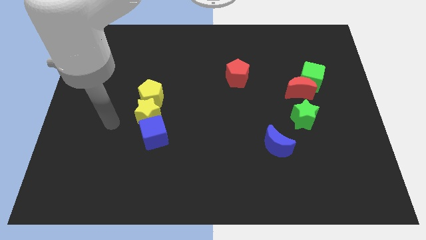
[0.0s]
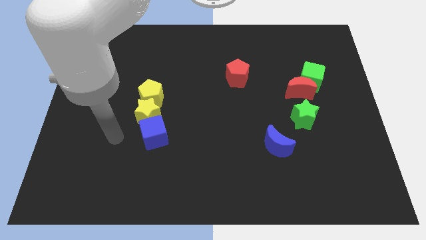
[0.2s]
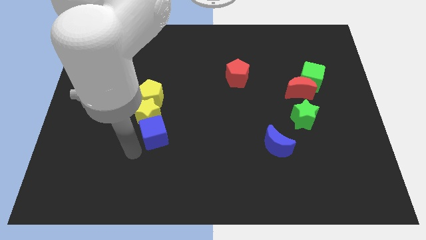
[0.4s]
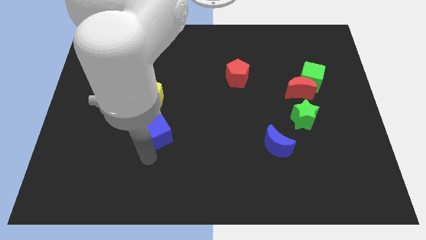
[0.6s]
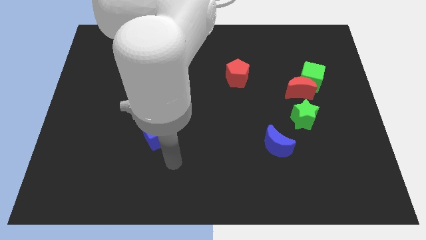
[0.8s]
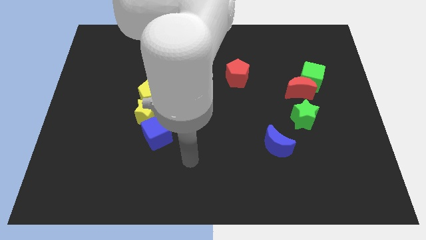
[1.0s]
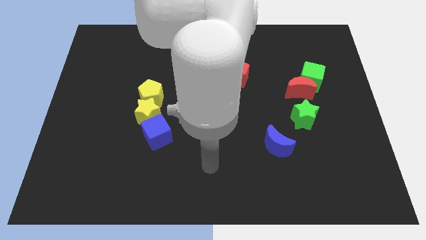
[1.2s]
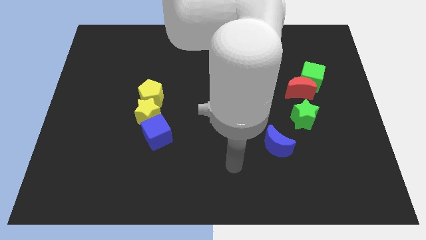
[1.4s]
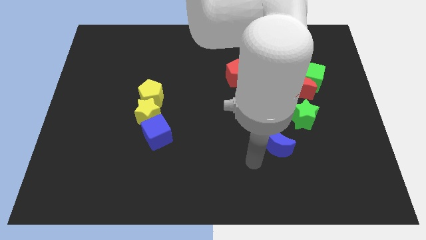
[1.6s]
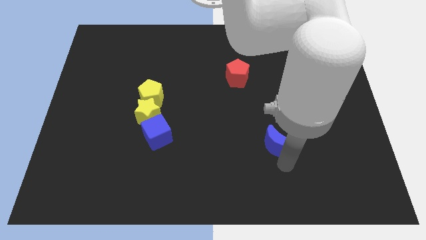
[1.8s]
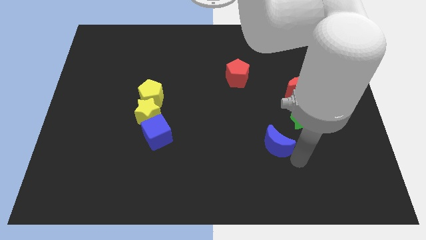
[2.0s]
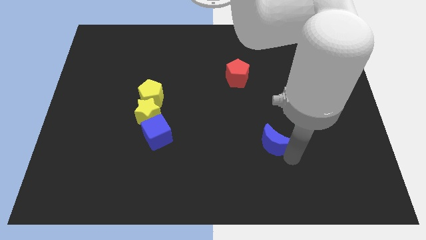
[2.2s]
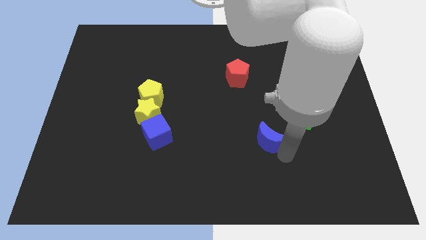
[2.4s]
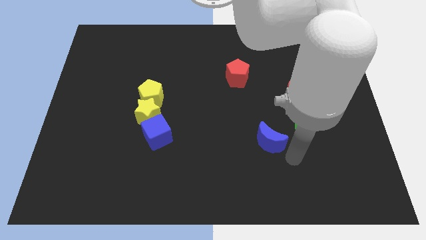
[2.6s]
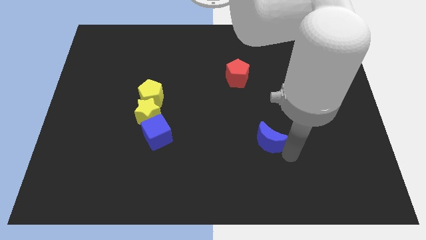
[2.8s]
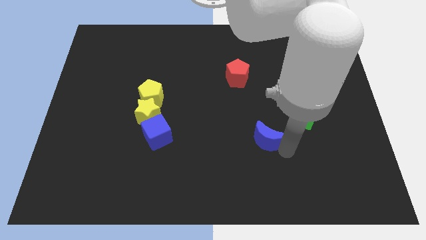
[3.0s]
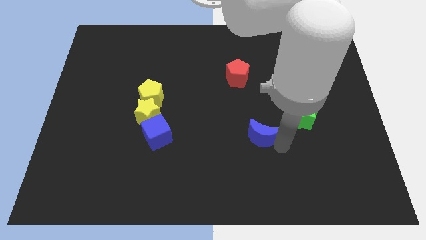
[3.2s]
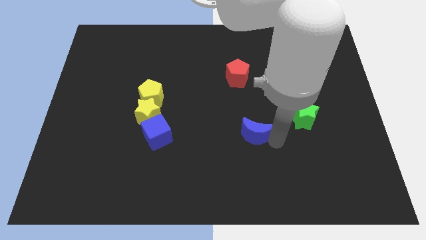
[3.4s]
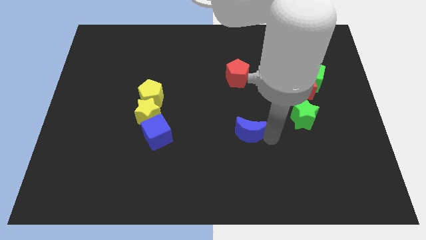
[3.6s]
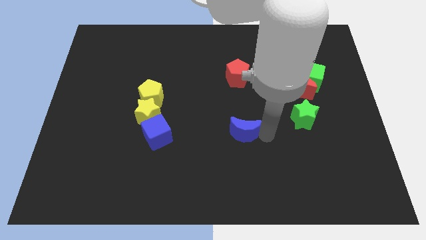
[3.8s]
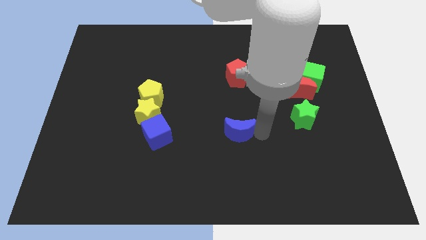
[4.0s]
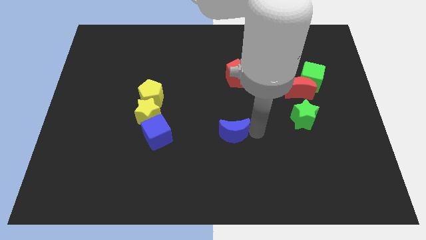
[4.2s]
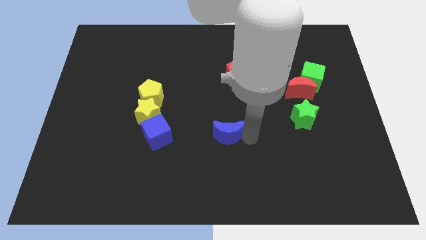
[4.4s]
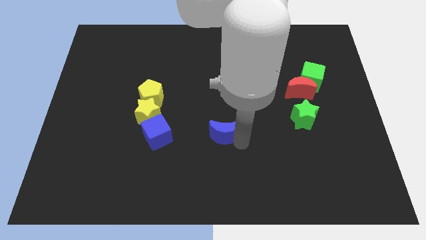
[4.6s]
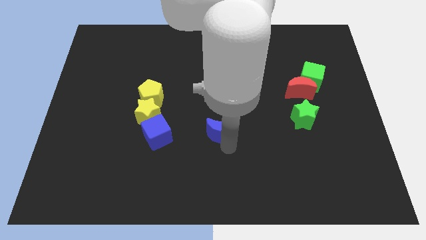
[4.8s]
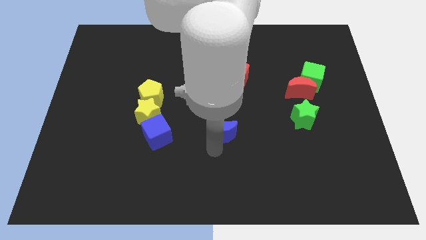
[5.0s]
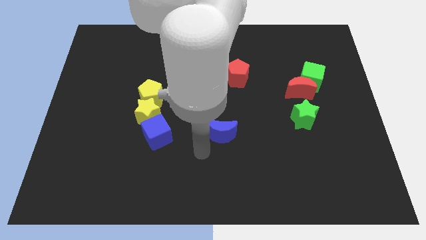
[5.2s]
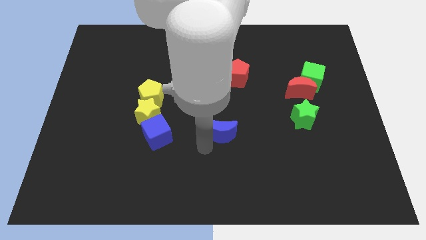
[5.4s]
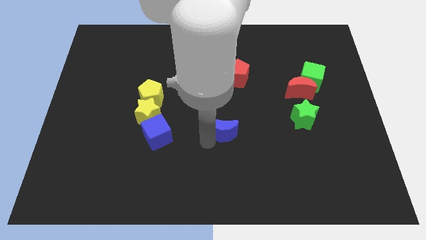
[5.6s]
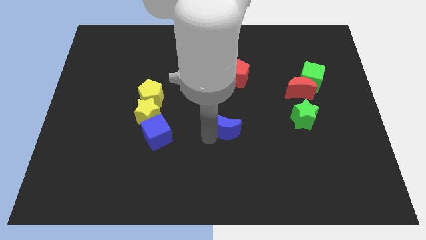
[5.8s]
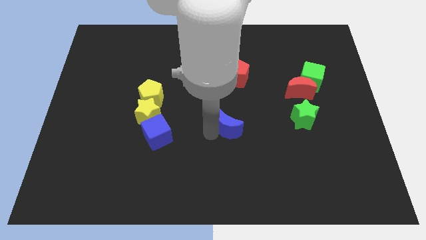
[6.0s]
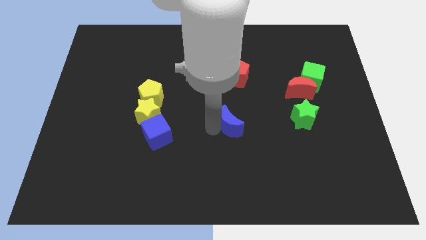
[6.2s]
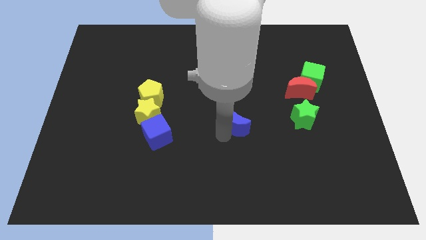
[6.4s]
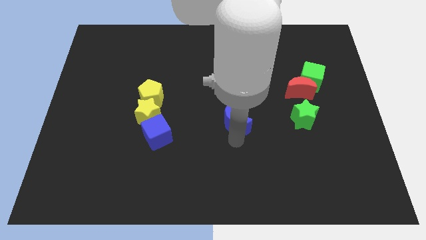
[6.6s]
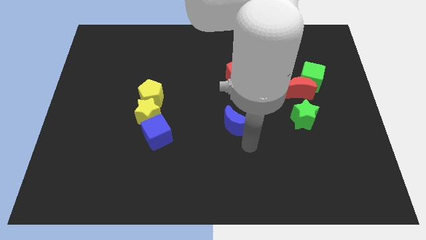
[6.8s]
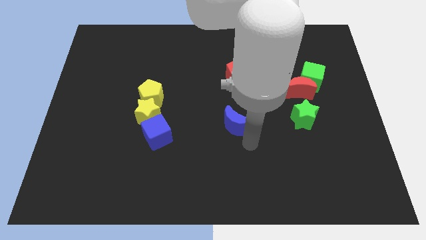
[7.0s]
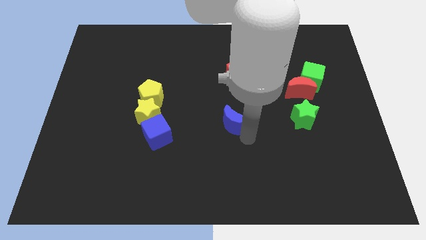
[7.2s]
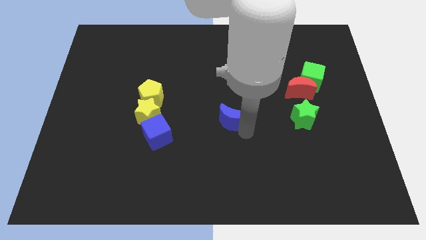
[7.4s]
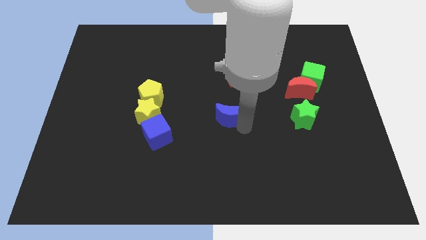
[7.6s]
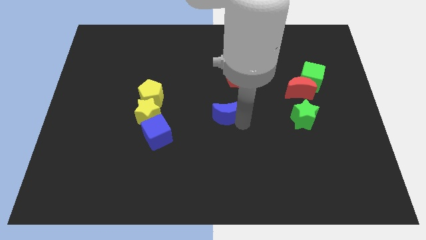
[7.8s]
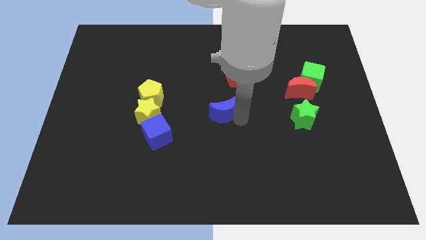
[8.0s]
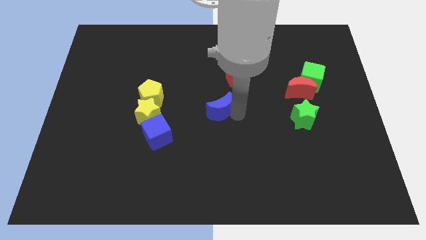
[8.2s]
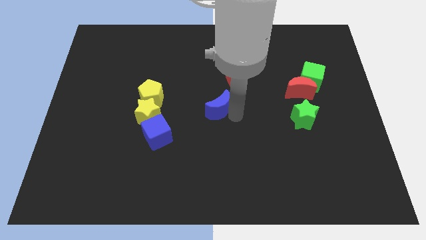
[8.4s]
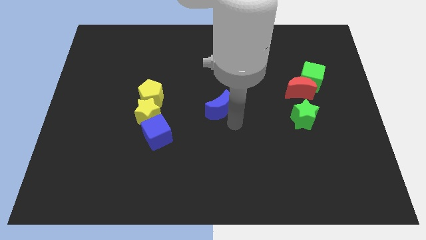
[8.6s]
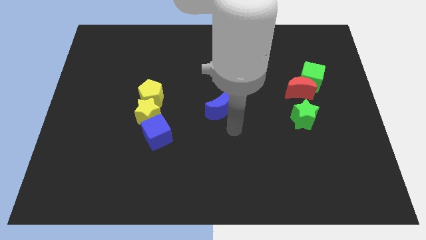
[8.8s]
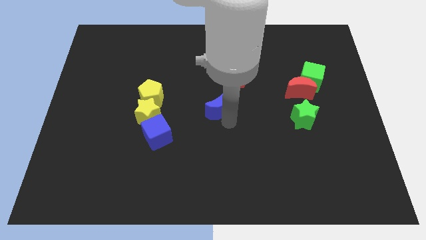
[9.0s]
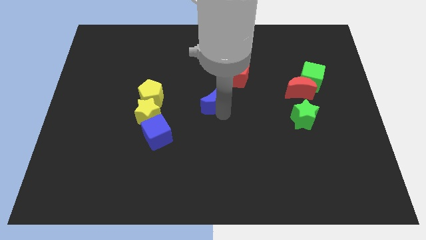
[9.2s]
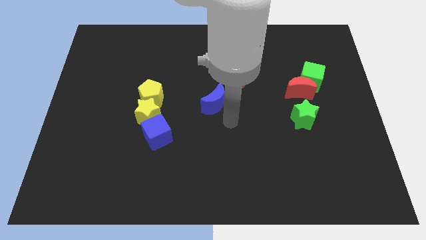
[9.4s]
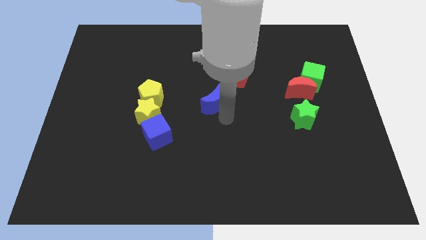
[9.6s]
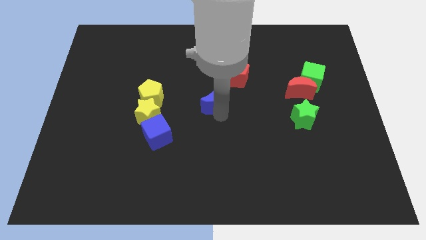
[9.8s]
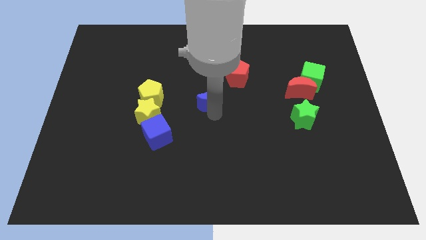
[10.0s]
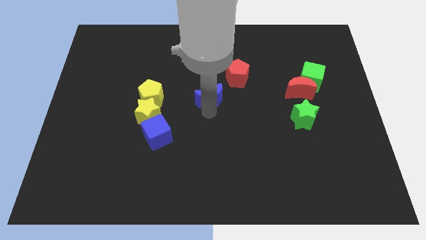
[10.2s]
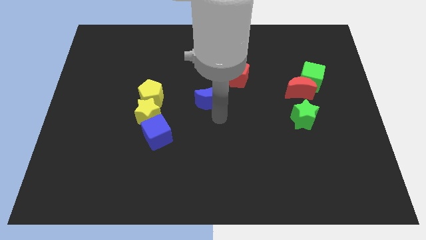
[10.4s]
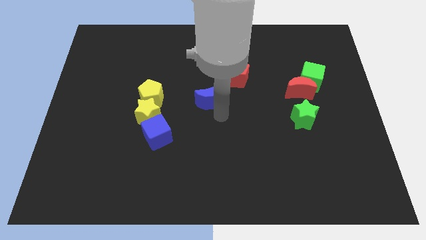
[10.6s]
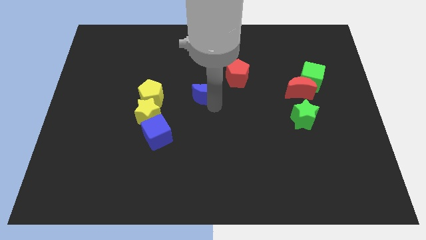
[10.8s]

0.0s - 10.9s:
slide the blue moon upwards and left

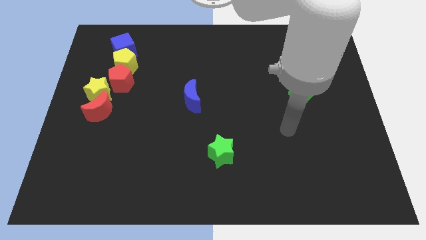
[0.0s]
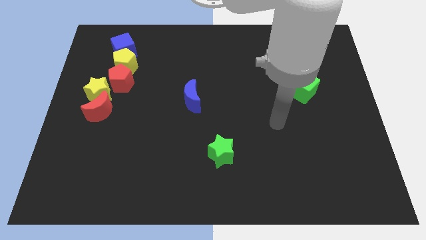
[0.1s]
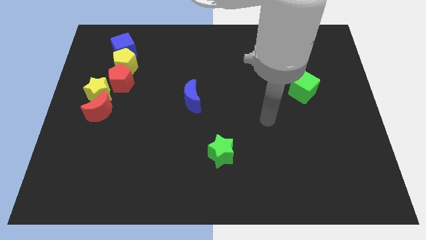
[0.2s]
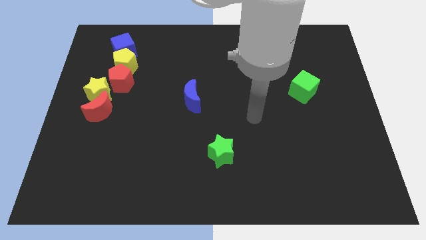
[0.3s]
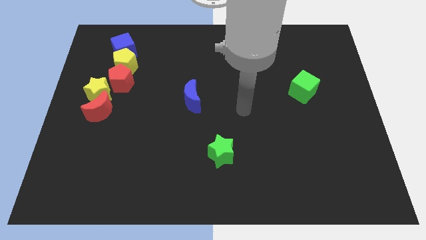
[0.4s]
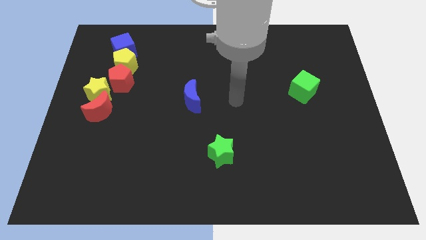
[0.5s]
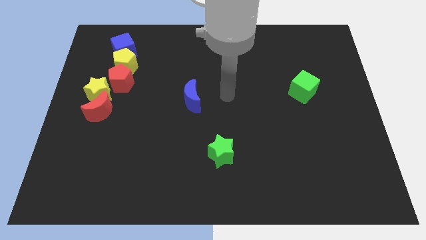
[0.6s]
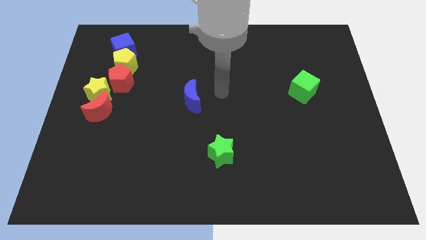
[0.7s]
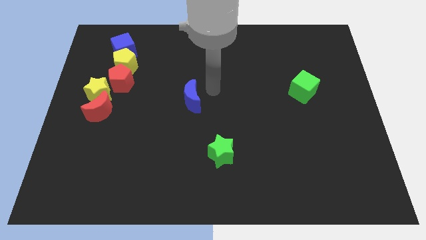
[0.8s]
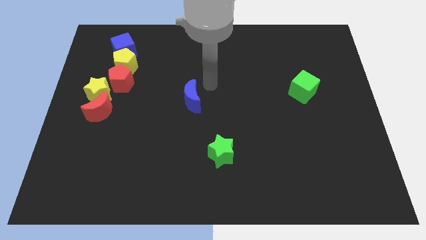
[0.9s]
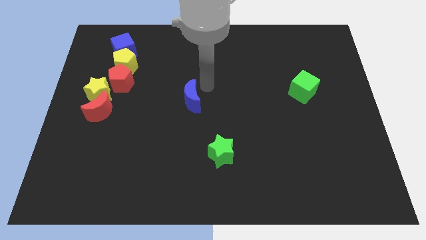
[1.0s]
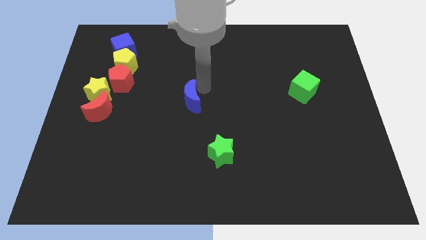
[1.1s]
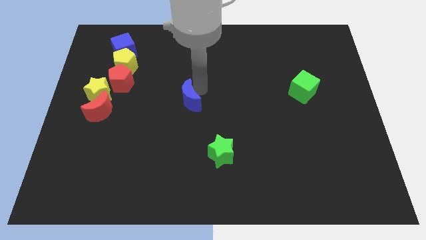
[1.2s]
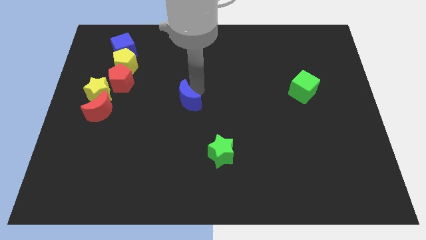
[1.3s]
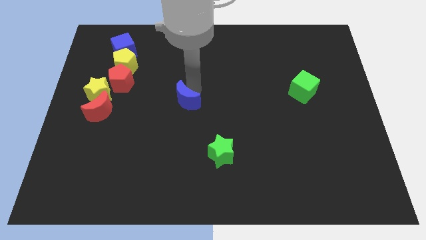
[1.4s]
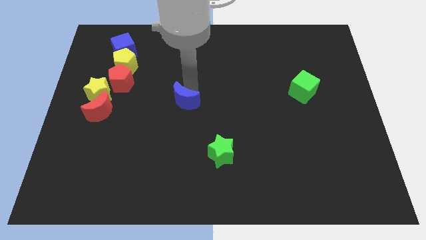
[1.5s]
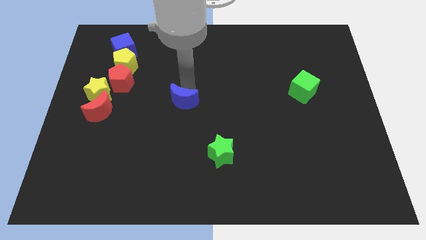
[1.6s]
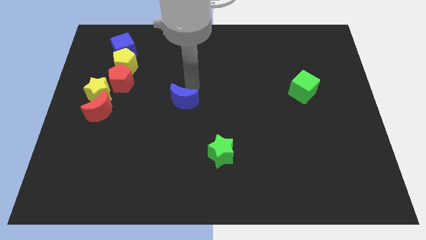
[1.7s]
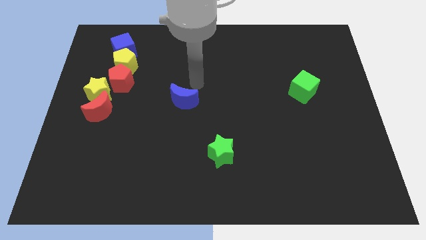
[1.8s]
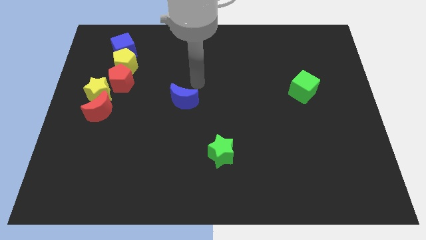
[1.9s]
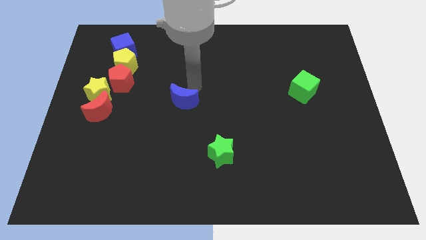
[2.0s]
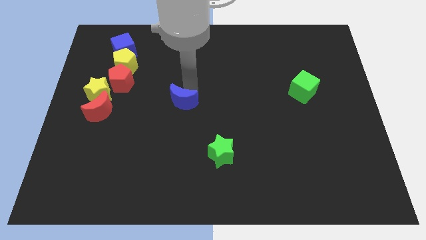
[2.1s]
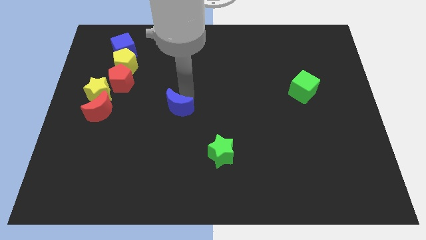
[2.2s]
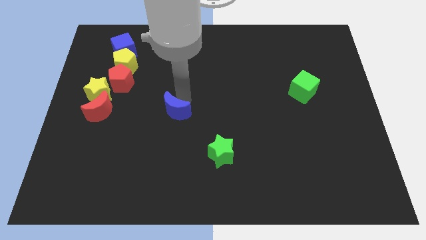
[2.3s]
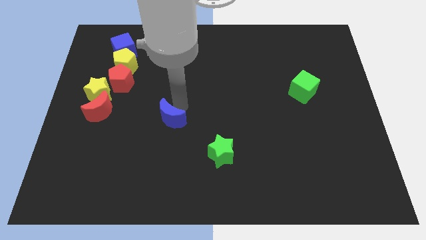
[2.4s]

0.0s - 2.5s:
push the blue moon a bit downwards and left diagonally

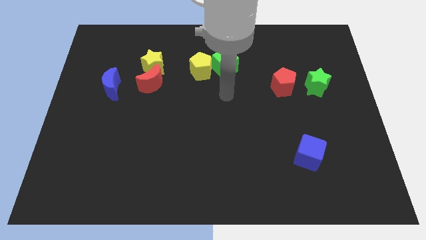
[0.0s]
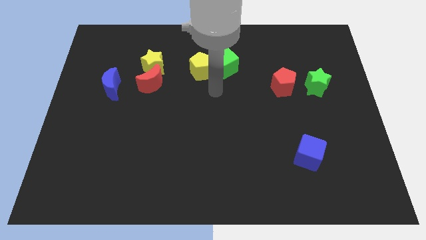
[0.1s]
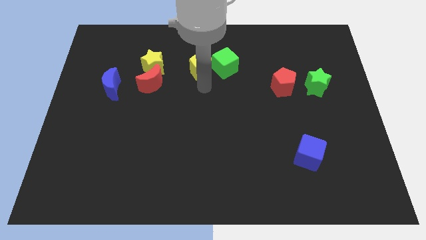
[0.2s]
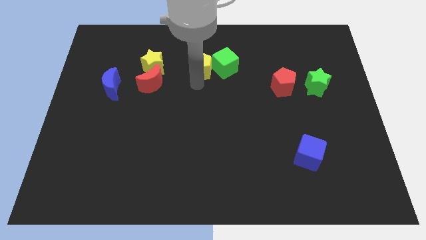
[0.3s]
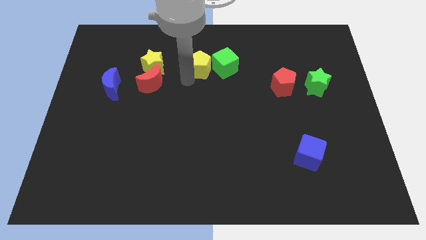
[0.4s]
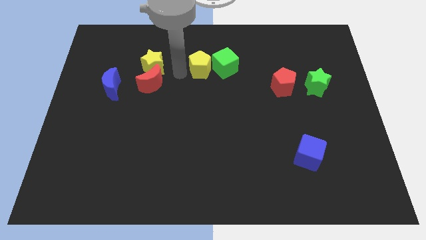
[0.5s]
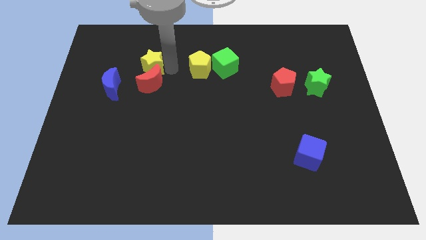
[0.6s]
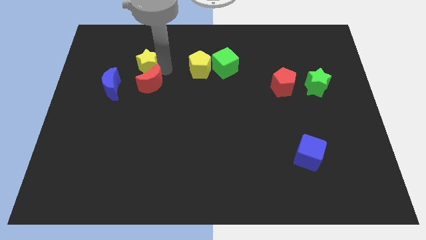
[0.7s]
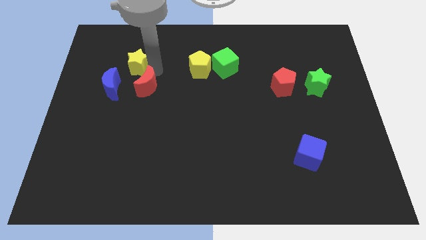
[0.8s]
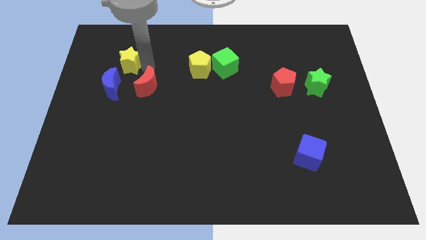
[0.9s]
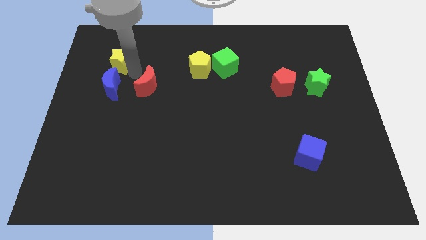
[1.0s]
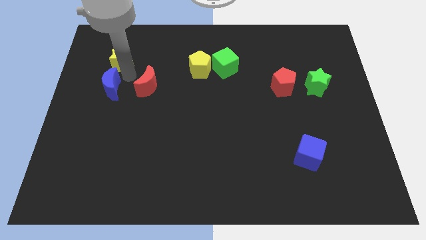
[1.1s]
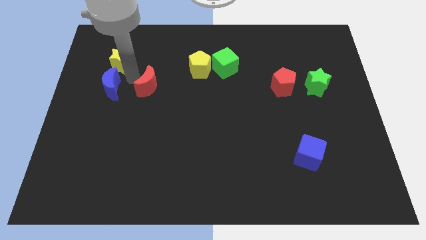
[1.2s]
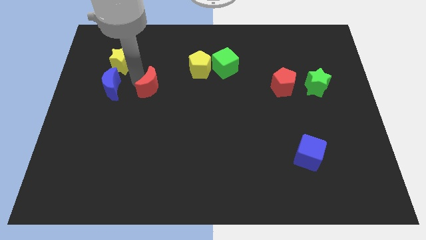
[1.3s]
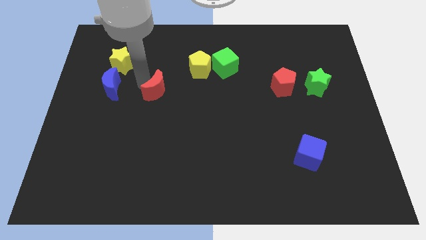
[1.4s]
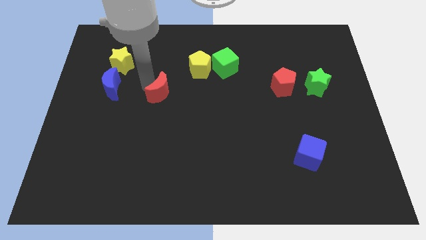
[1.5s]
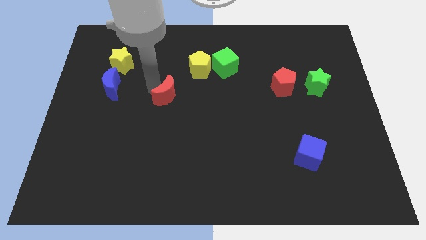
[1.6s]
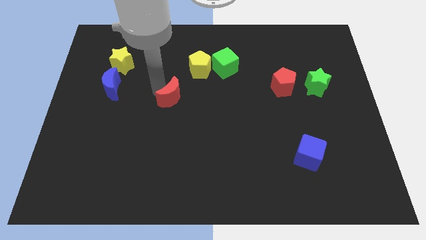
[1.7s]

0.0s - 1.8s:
slightly slide the red moon down and then to the right
